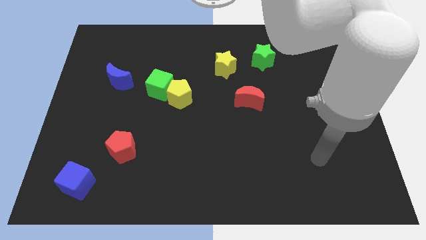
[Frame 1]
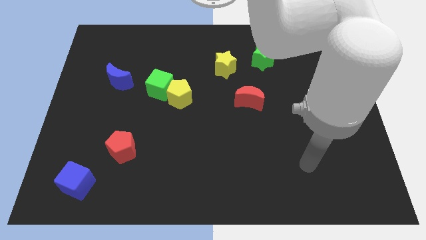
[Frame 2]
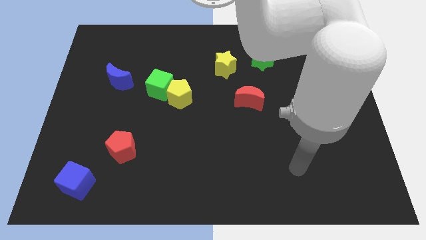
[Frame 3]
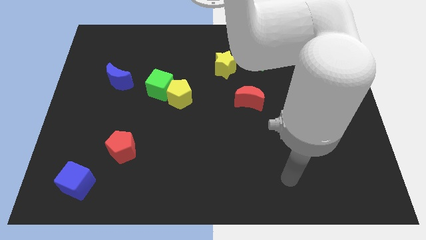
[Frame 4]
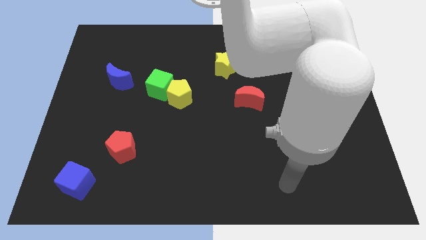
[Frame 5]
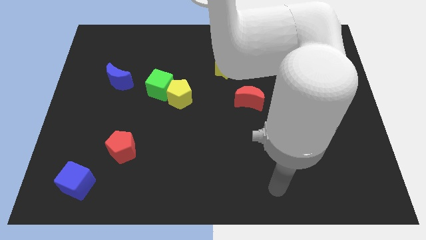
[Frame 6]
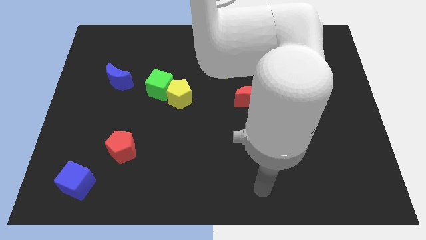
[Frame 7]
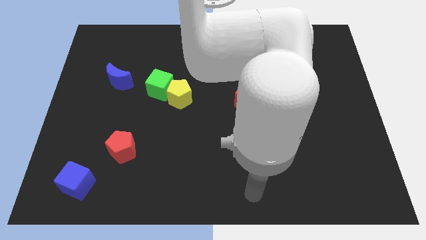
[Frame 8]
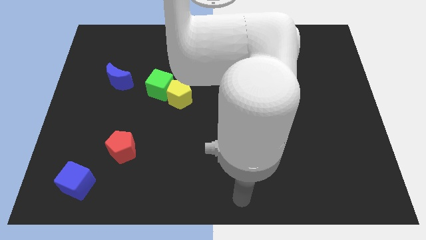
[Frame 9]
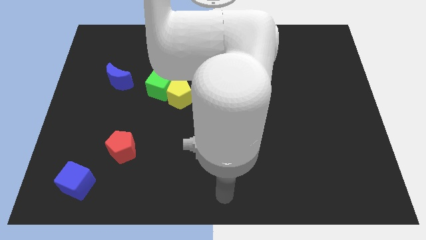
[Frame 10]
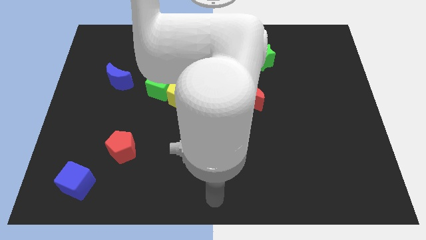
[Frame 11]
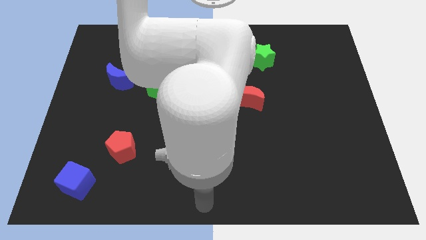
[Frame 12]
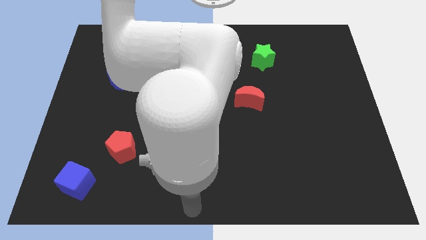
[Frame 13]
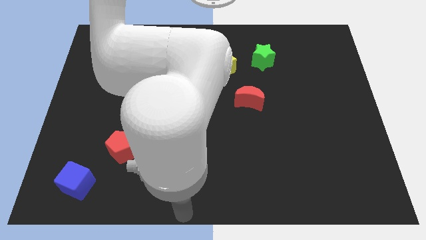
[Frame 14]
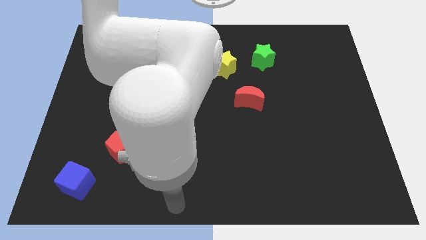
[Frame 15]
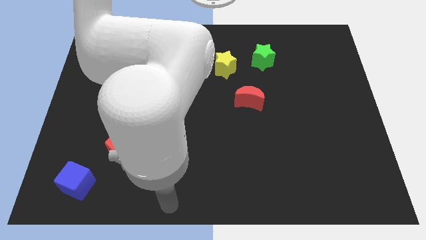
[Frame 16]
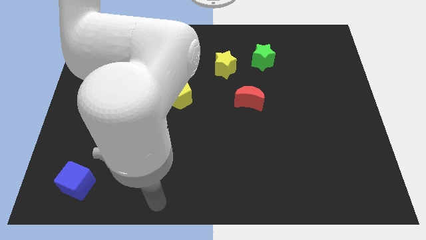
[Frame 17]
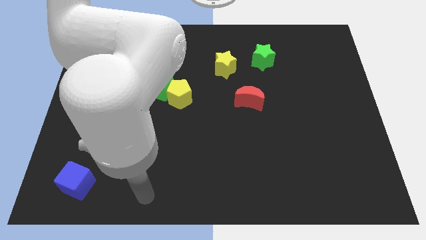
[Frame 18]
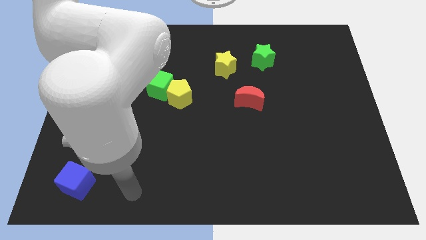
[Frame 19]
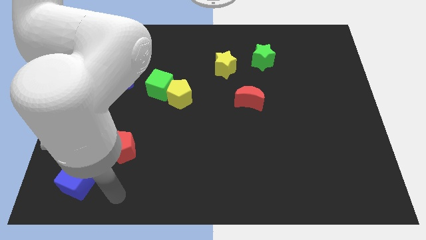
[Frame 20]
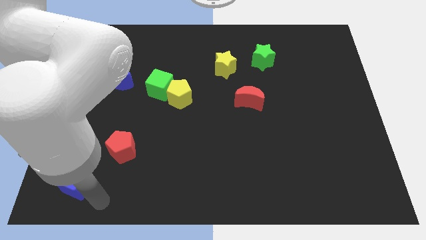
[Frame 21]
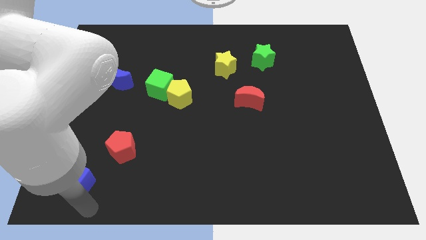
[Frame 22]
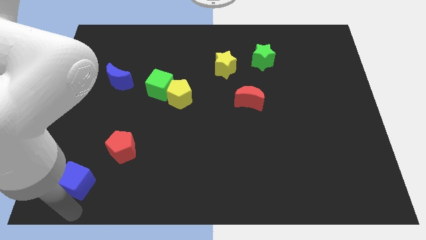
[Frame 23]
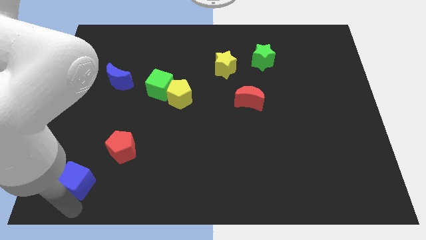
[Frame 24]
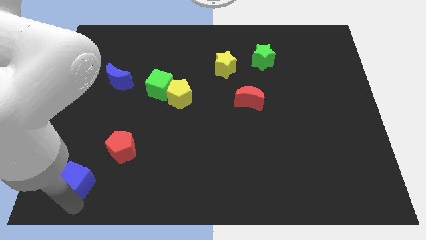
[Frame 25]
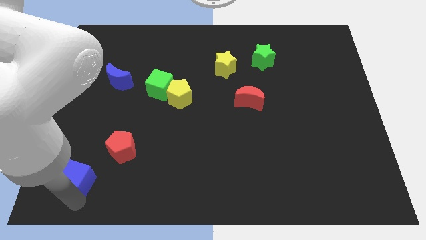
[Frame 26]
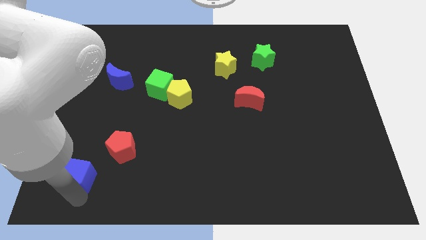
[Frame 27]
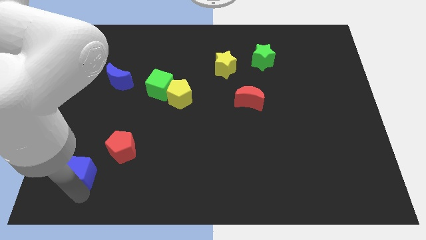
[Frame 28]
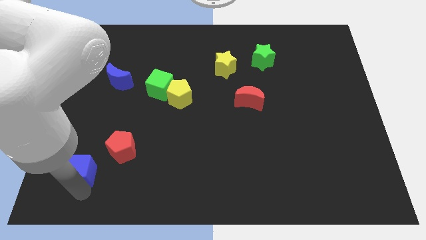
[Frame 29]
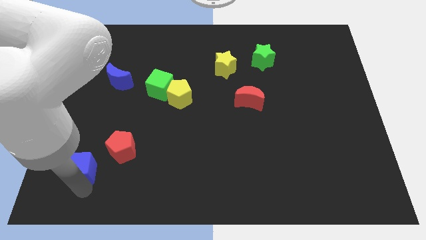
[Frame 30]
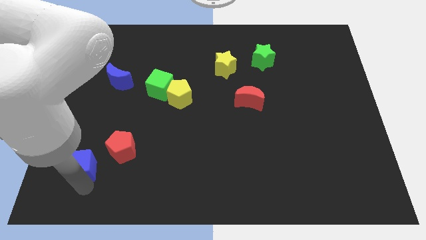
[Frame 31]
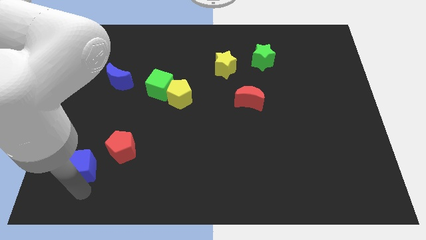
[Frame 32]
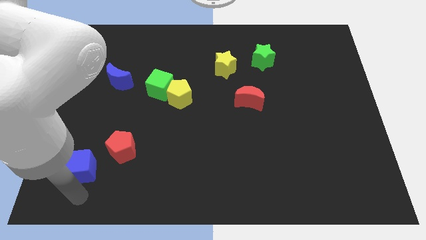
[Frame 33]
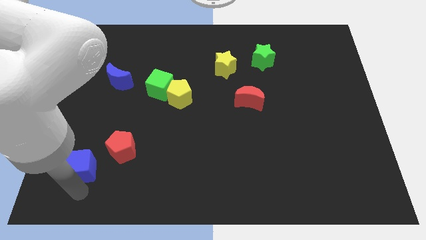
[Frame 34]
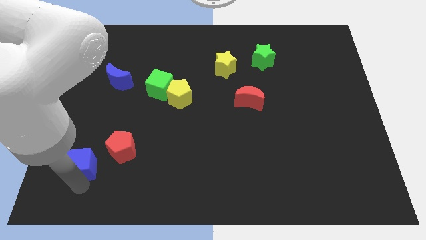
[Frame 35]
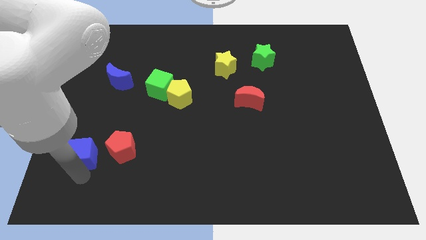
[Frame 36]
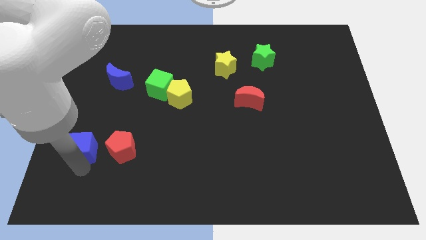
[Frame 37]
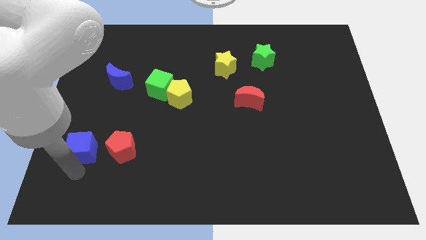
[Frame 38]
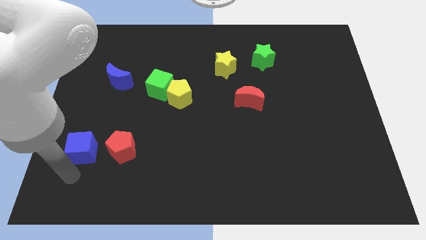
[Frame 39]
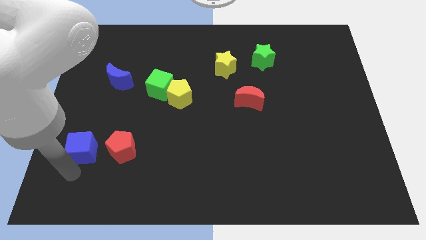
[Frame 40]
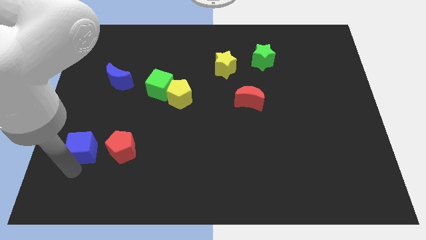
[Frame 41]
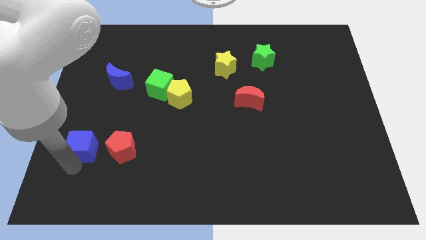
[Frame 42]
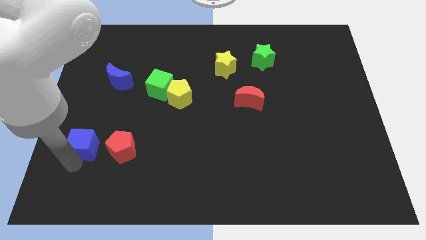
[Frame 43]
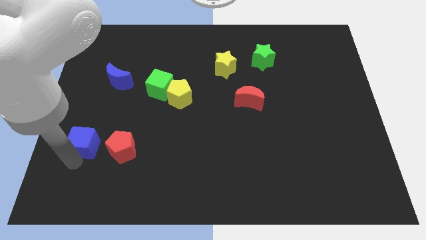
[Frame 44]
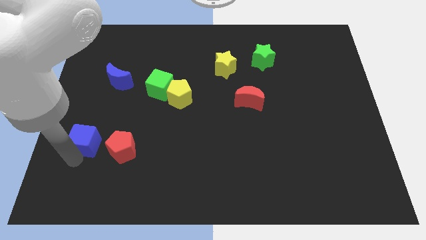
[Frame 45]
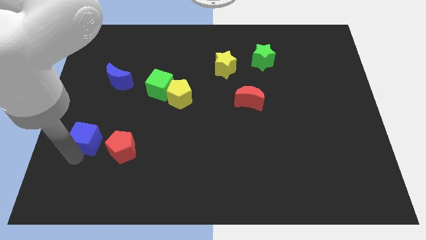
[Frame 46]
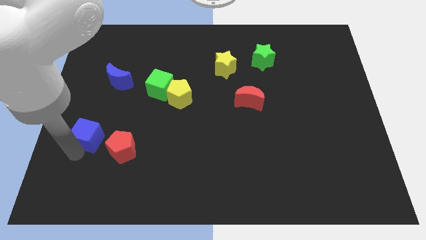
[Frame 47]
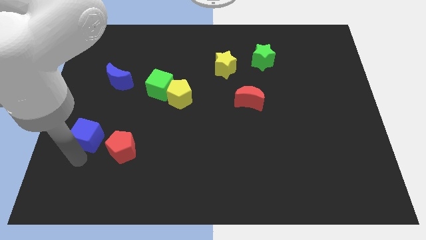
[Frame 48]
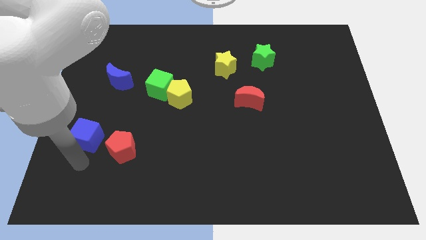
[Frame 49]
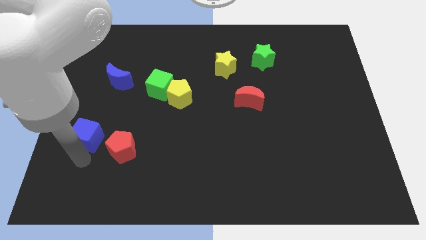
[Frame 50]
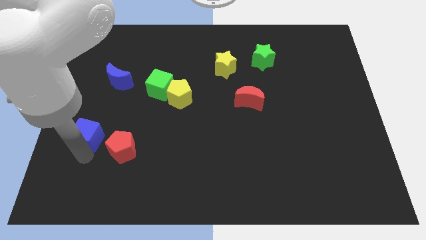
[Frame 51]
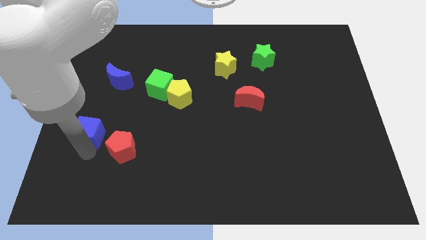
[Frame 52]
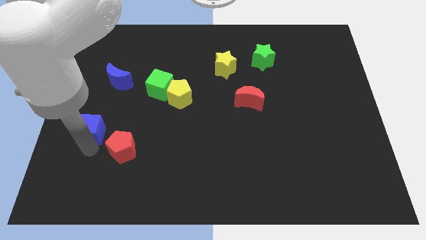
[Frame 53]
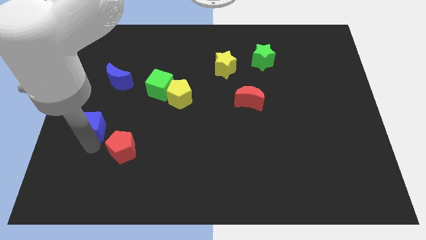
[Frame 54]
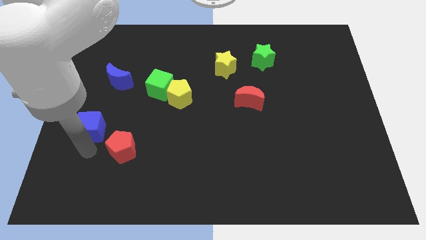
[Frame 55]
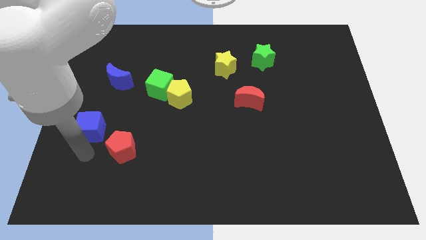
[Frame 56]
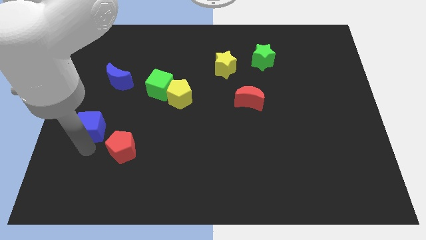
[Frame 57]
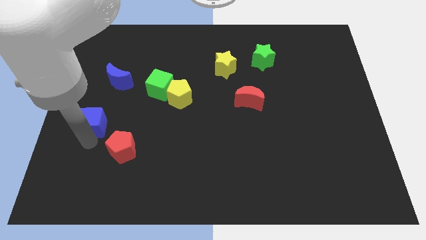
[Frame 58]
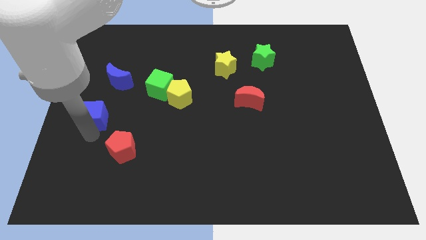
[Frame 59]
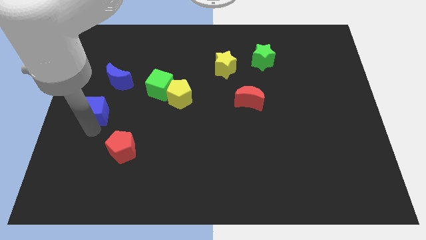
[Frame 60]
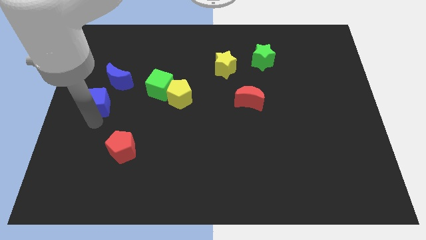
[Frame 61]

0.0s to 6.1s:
push the blue cube up

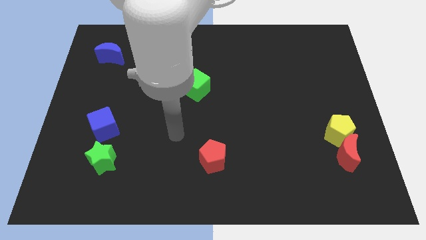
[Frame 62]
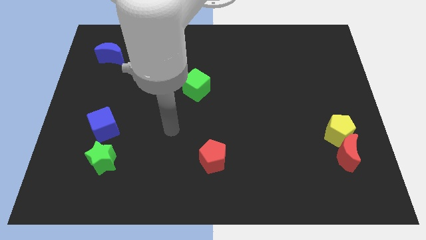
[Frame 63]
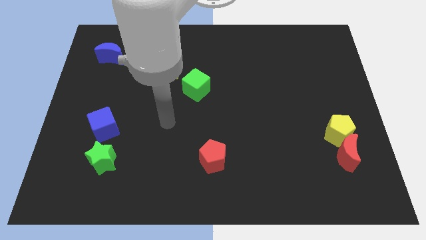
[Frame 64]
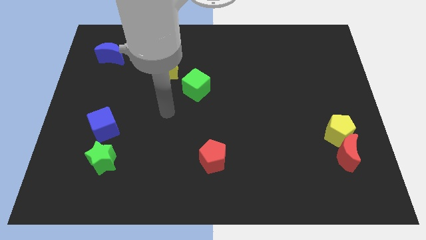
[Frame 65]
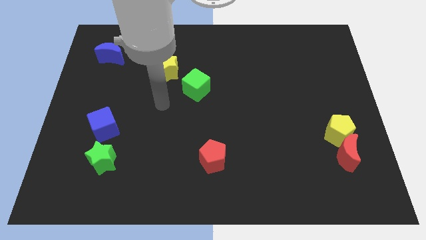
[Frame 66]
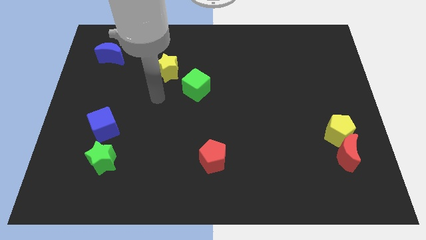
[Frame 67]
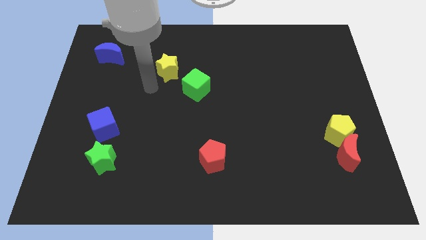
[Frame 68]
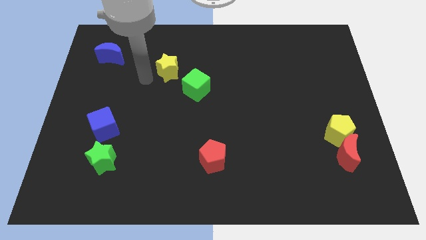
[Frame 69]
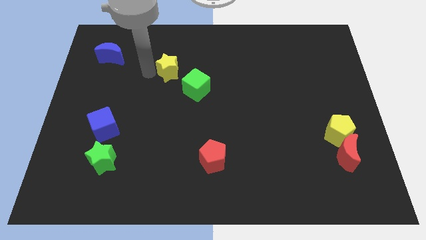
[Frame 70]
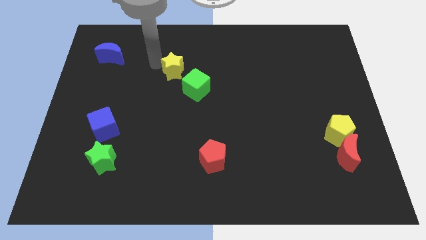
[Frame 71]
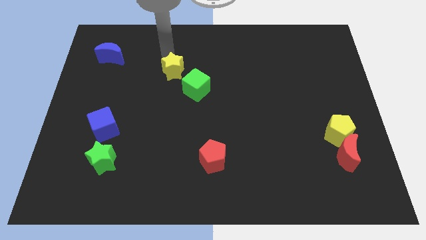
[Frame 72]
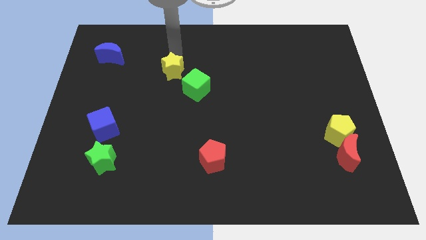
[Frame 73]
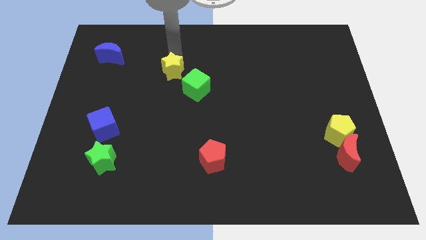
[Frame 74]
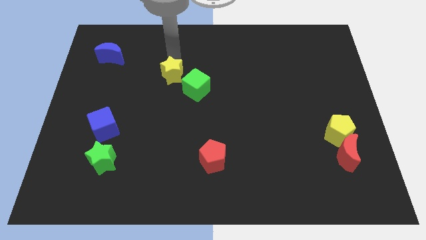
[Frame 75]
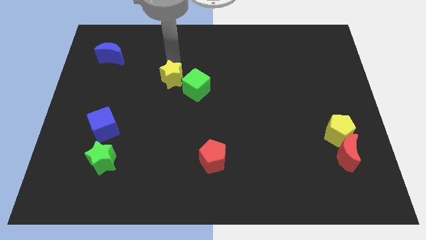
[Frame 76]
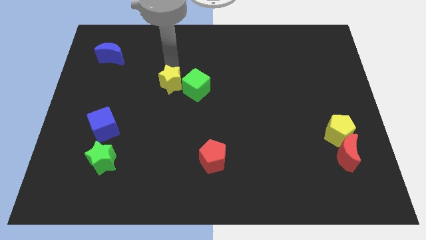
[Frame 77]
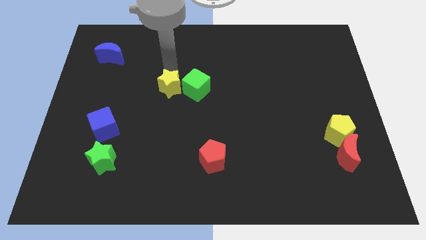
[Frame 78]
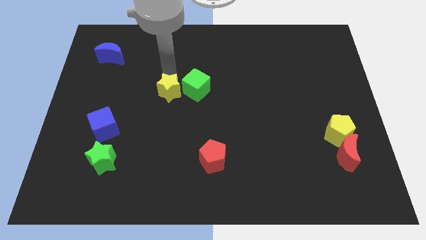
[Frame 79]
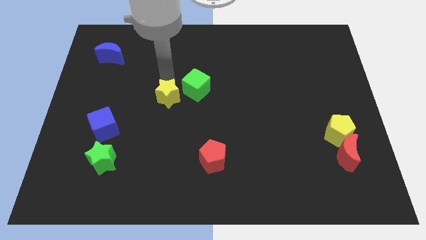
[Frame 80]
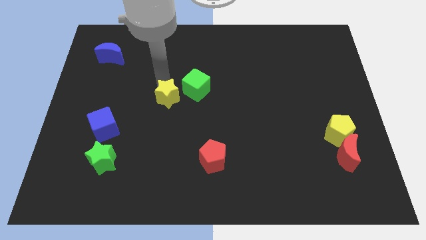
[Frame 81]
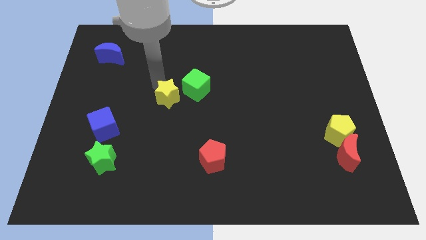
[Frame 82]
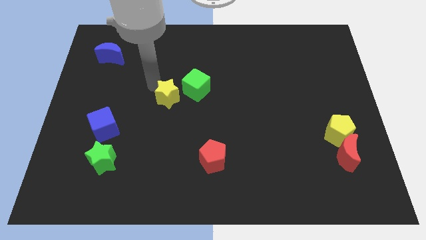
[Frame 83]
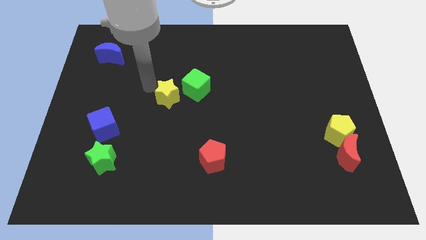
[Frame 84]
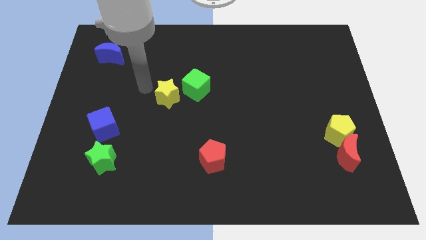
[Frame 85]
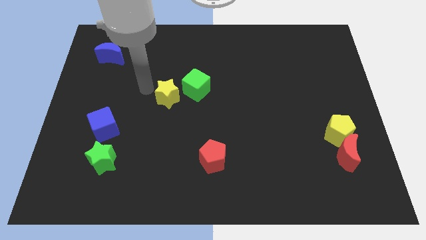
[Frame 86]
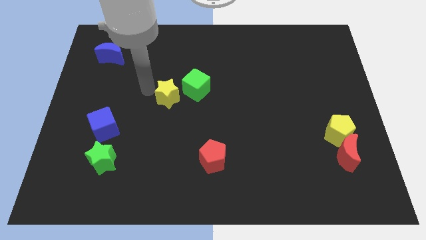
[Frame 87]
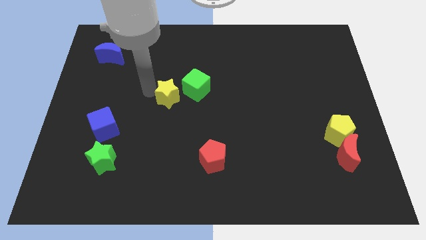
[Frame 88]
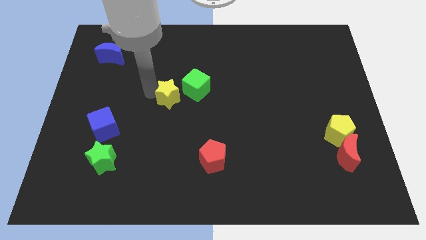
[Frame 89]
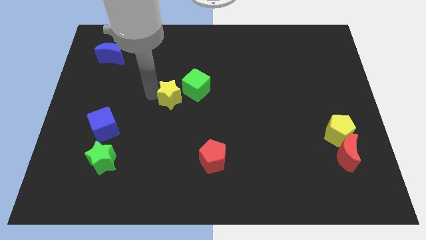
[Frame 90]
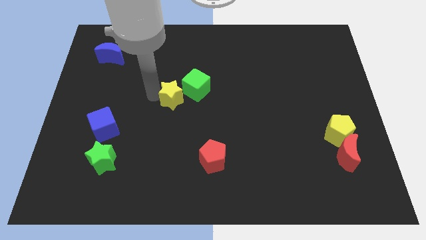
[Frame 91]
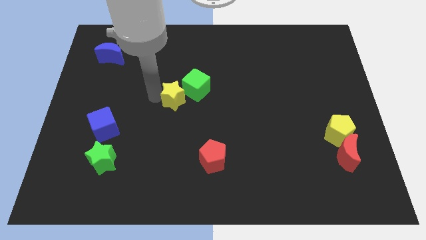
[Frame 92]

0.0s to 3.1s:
slide the yellow star a little bit diagonally down and to the right
